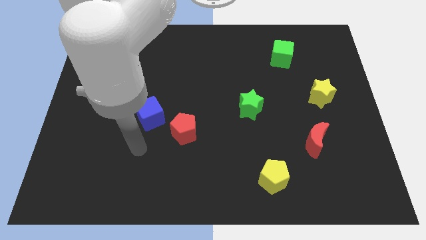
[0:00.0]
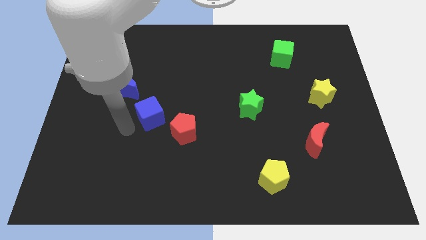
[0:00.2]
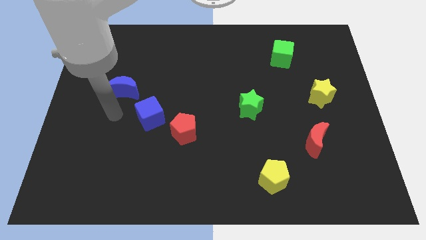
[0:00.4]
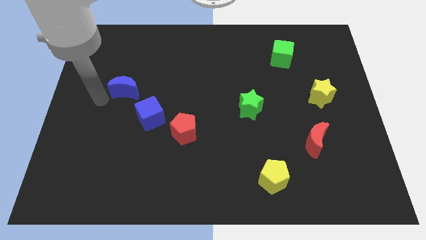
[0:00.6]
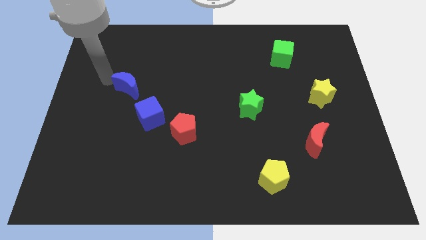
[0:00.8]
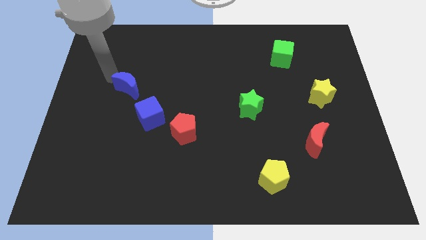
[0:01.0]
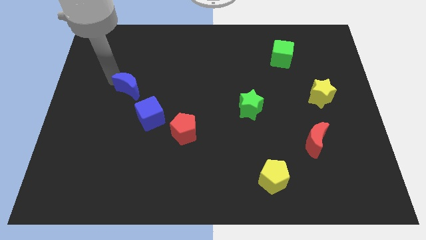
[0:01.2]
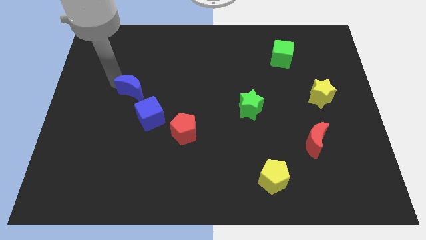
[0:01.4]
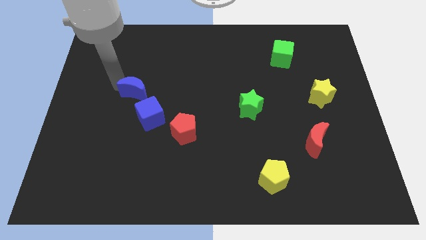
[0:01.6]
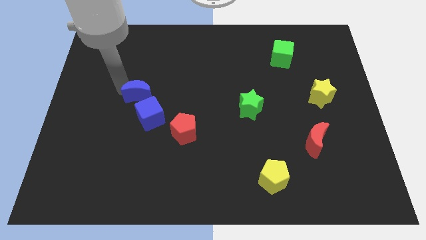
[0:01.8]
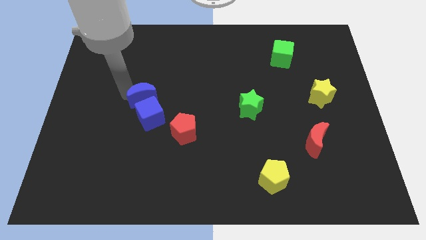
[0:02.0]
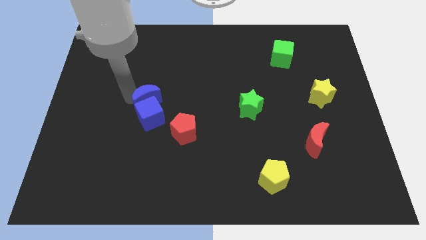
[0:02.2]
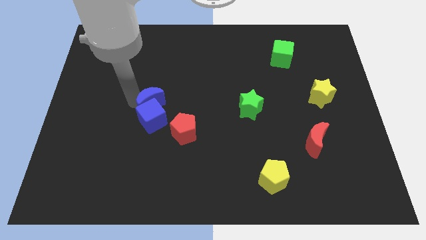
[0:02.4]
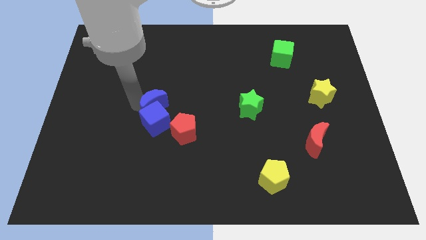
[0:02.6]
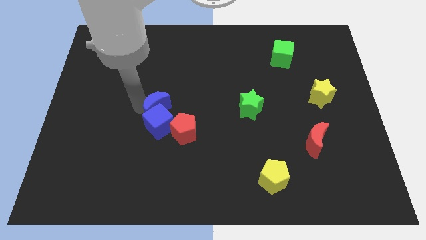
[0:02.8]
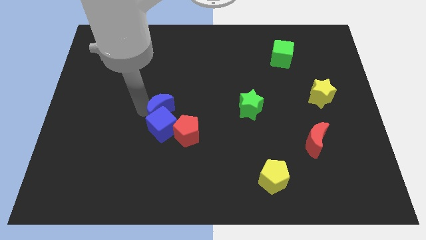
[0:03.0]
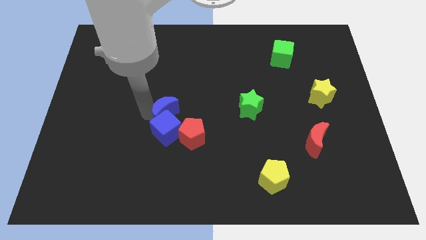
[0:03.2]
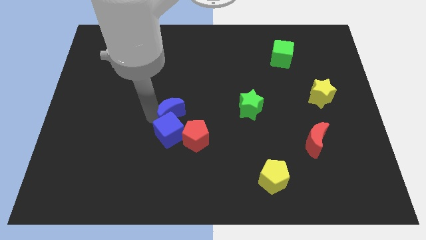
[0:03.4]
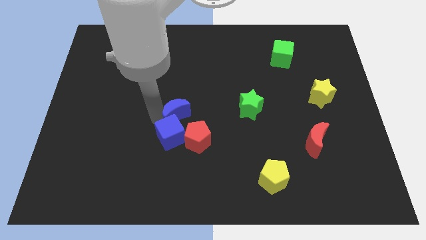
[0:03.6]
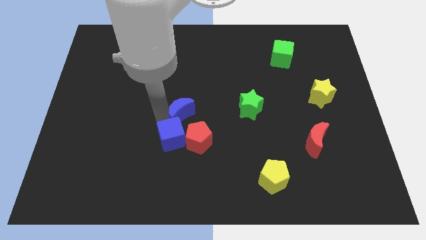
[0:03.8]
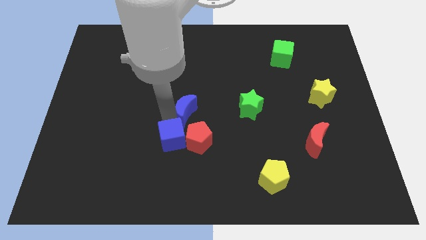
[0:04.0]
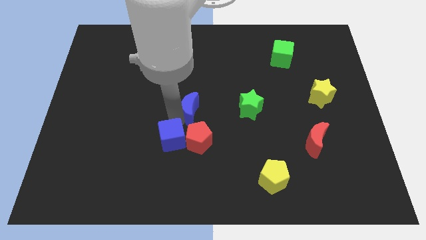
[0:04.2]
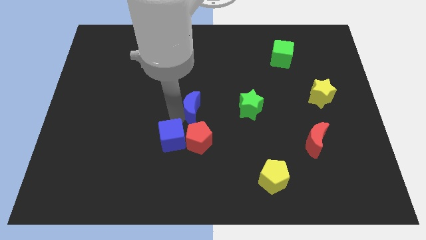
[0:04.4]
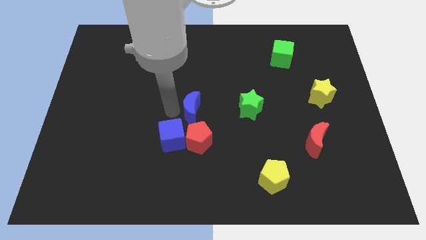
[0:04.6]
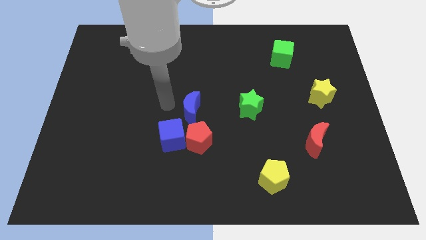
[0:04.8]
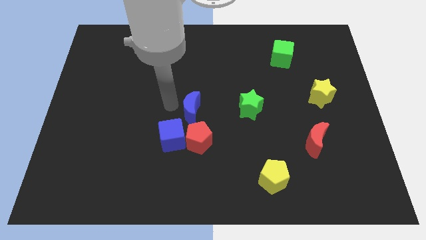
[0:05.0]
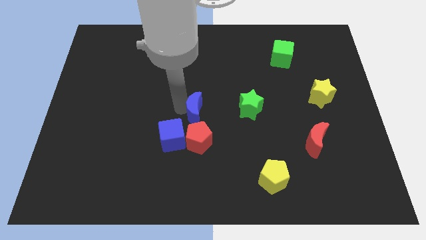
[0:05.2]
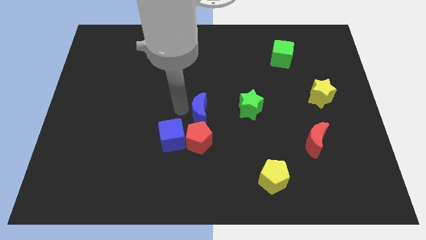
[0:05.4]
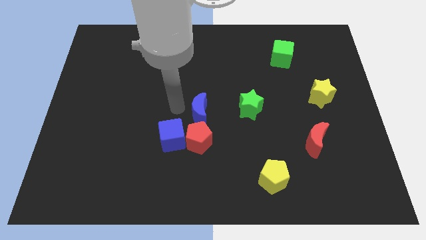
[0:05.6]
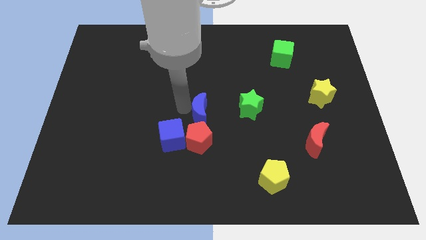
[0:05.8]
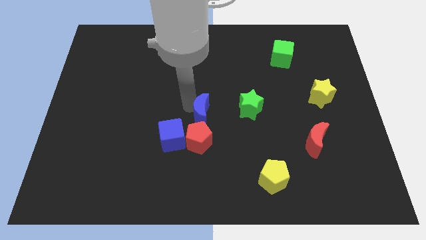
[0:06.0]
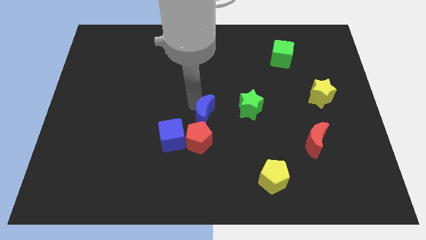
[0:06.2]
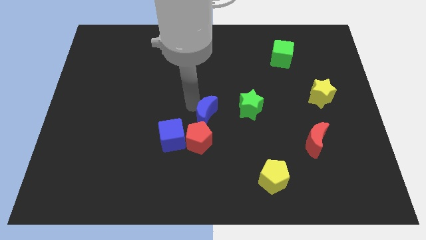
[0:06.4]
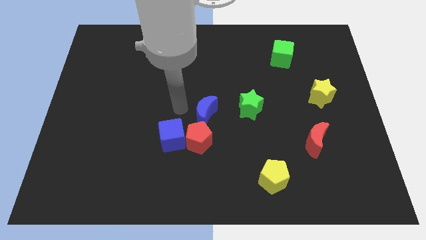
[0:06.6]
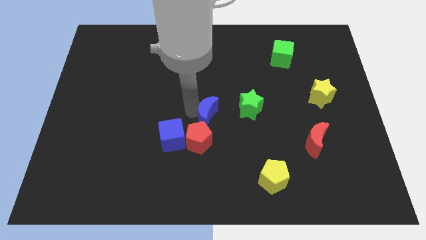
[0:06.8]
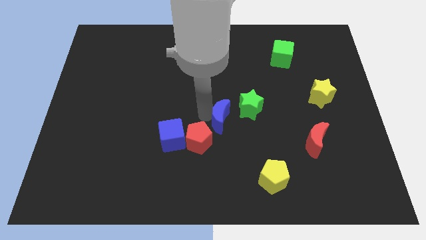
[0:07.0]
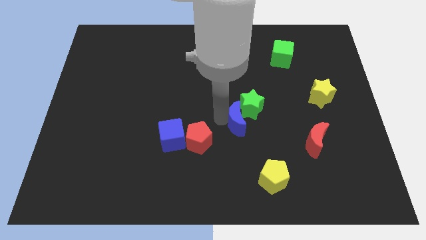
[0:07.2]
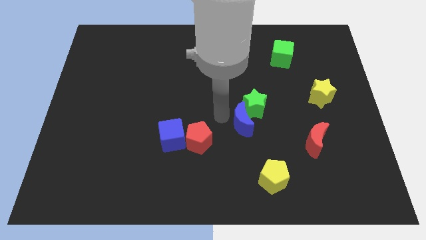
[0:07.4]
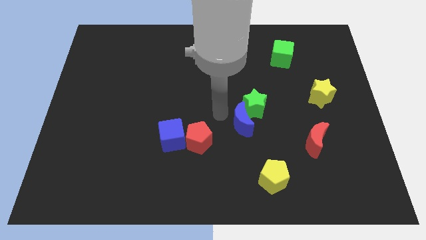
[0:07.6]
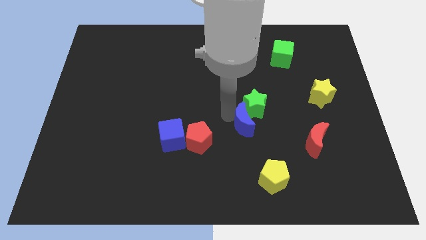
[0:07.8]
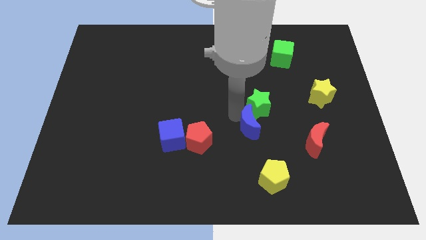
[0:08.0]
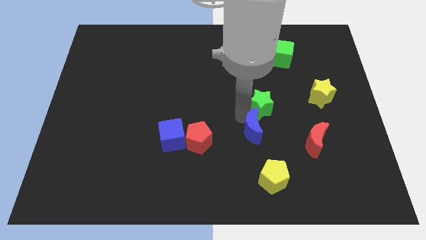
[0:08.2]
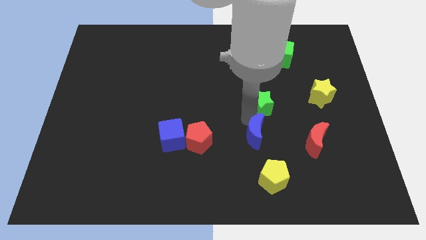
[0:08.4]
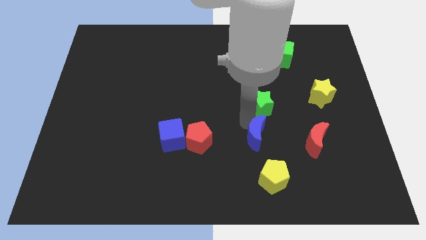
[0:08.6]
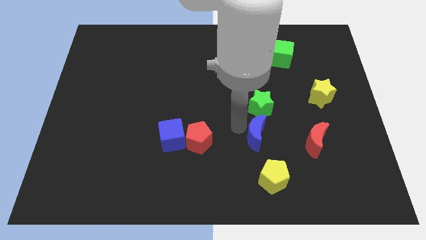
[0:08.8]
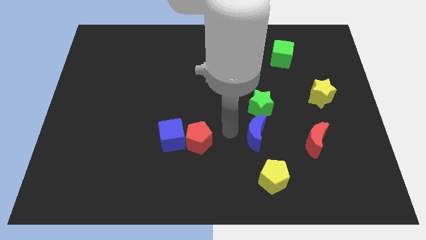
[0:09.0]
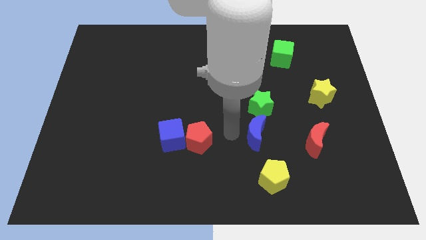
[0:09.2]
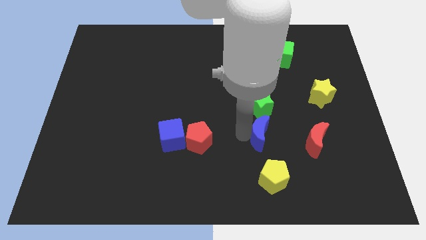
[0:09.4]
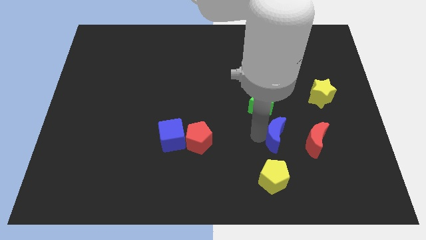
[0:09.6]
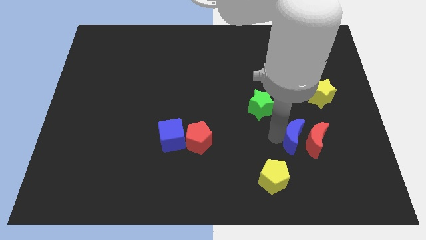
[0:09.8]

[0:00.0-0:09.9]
move the blue moon next to the red moon

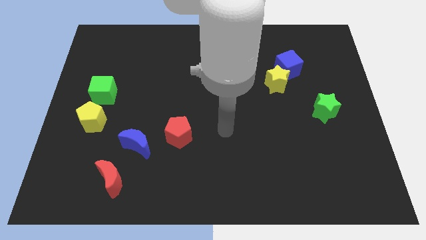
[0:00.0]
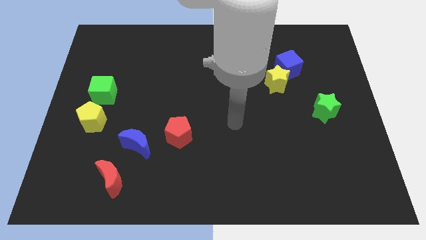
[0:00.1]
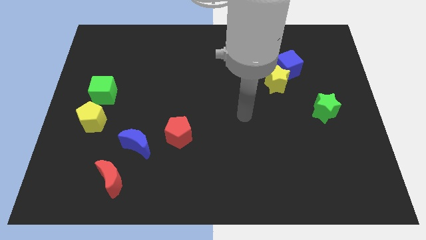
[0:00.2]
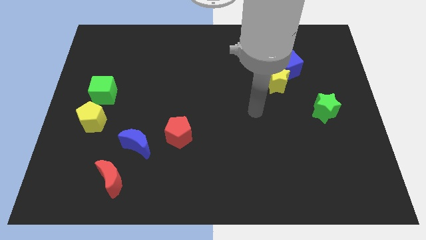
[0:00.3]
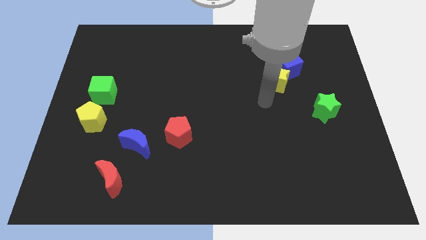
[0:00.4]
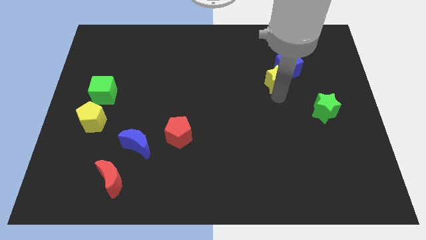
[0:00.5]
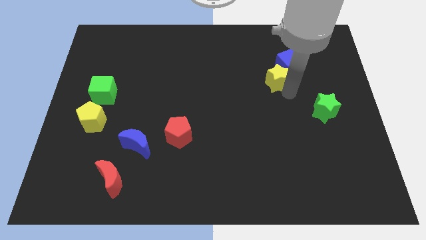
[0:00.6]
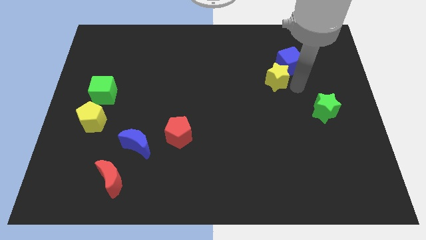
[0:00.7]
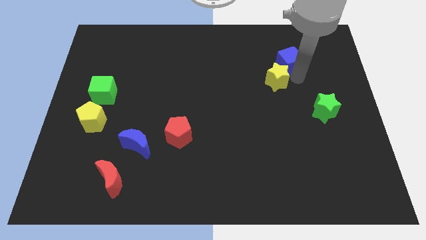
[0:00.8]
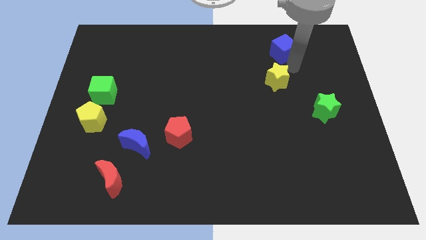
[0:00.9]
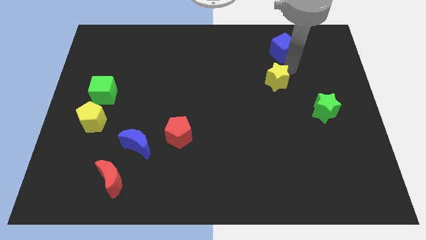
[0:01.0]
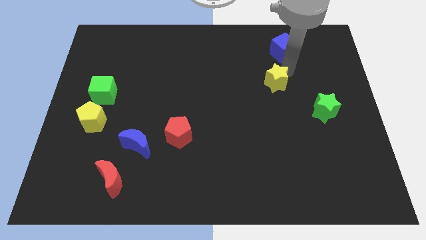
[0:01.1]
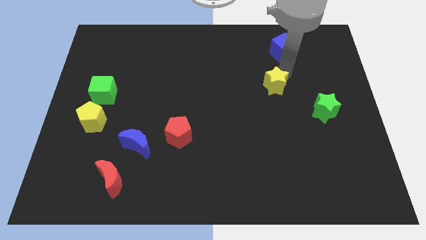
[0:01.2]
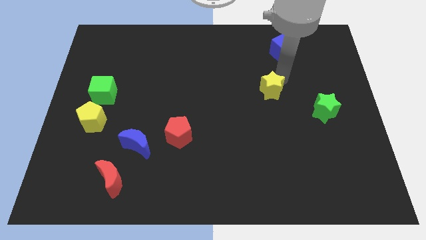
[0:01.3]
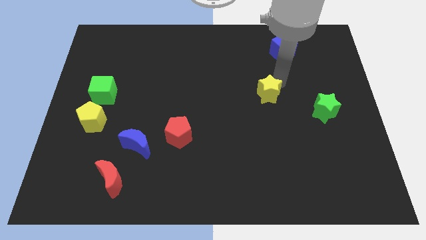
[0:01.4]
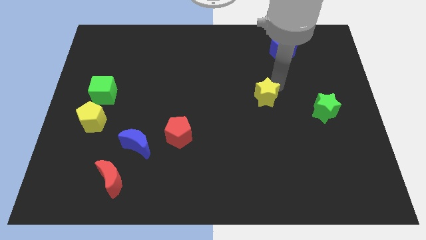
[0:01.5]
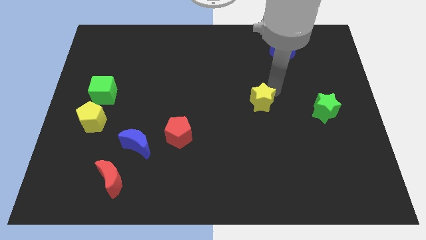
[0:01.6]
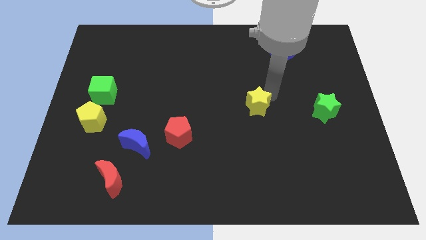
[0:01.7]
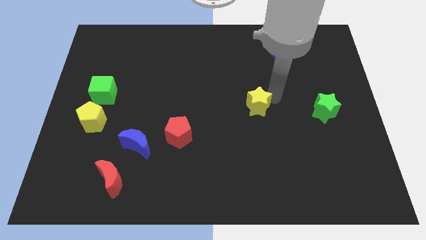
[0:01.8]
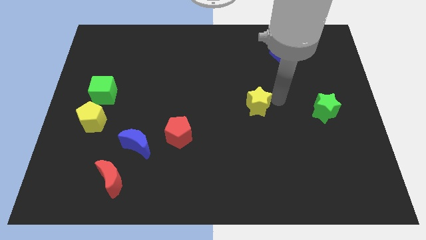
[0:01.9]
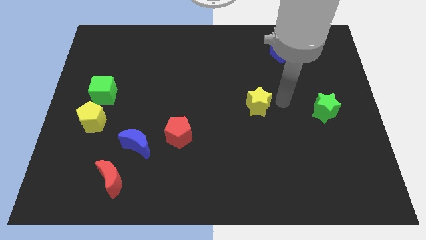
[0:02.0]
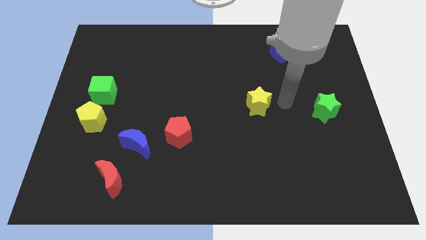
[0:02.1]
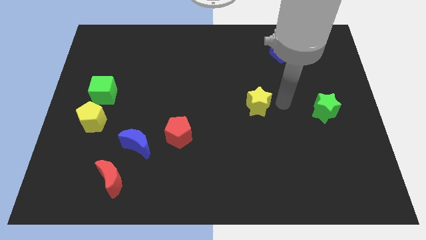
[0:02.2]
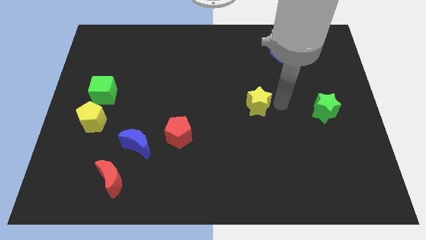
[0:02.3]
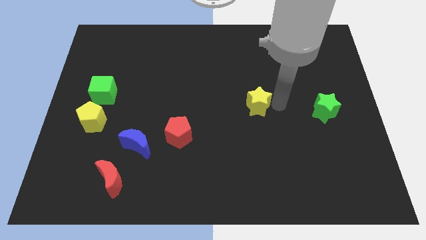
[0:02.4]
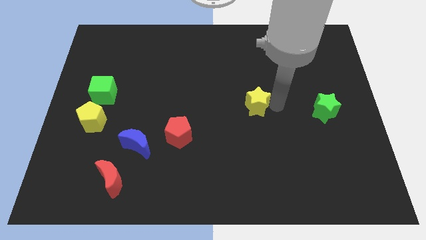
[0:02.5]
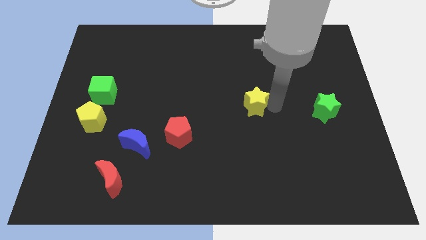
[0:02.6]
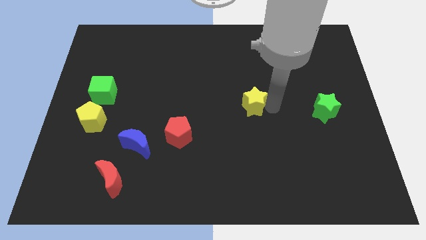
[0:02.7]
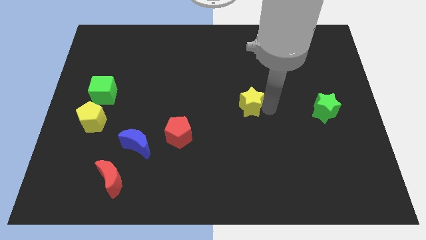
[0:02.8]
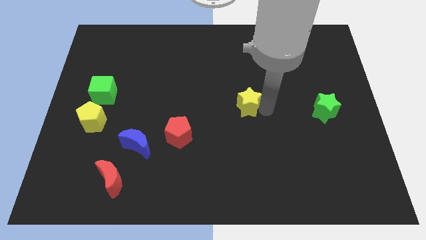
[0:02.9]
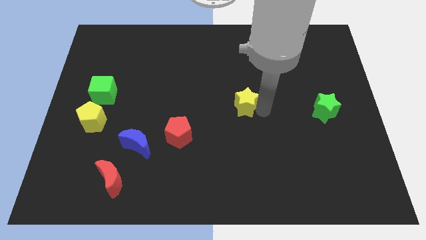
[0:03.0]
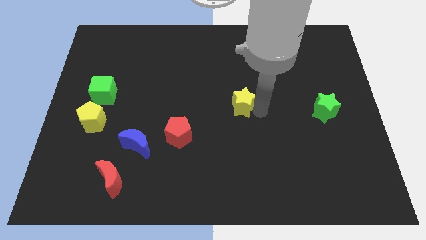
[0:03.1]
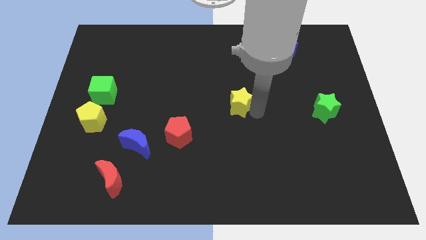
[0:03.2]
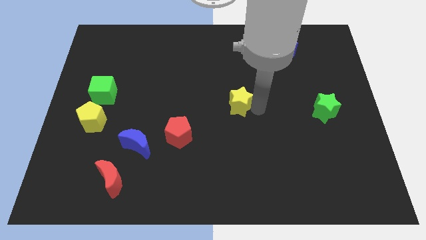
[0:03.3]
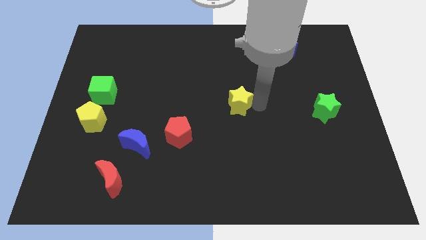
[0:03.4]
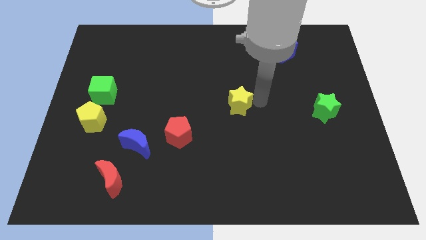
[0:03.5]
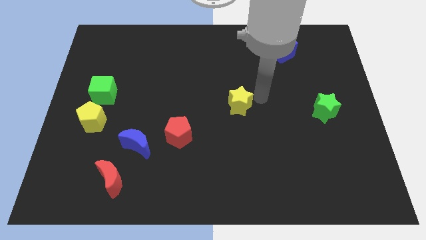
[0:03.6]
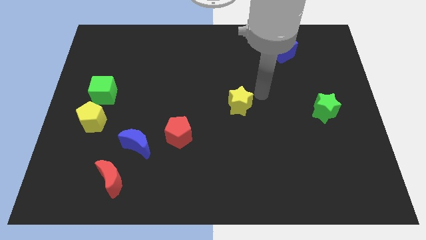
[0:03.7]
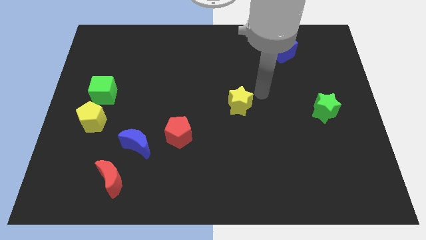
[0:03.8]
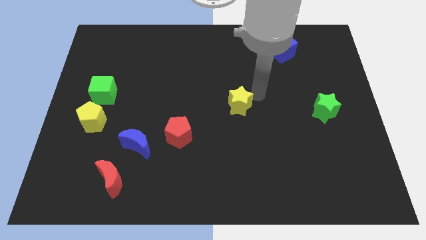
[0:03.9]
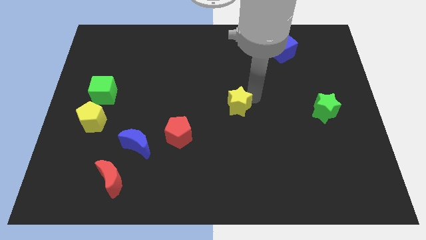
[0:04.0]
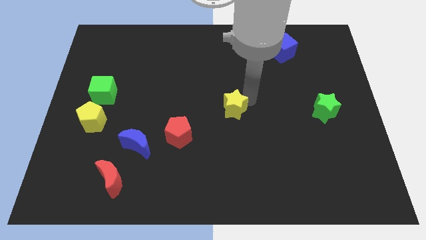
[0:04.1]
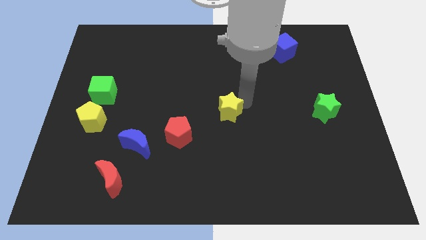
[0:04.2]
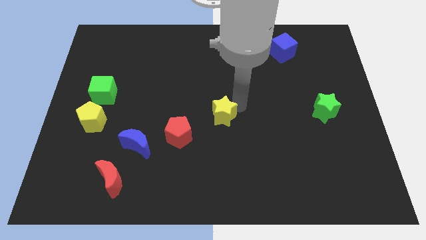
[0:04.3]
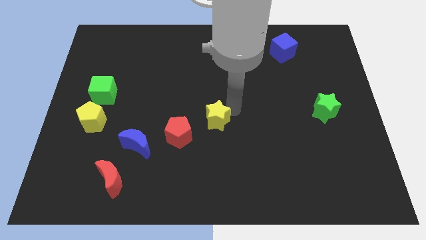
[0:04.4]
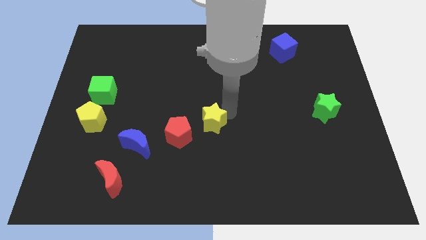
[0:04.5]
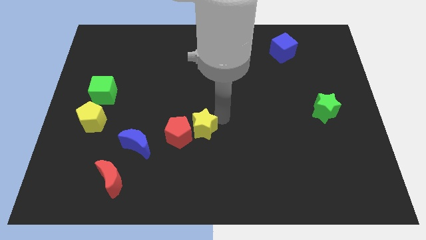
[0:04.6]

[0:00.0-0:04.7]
slide the yellow star to the red pentagon
